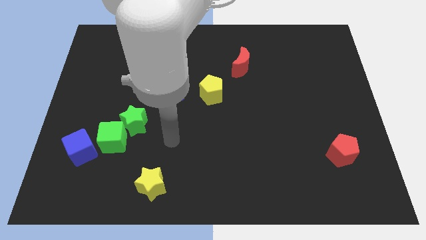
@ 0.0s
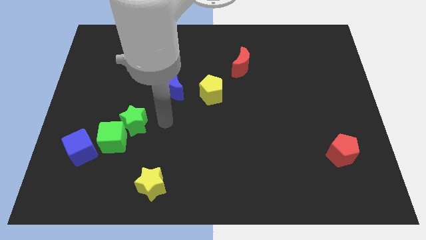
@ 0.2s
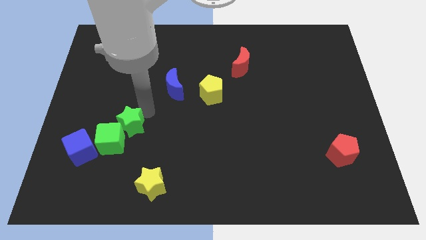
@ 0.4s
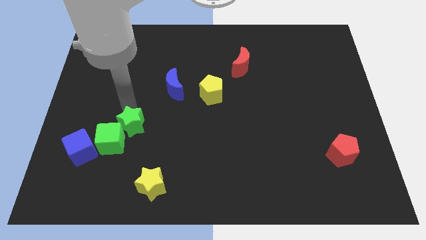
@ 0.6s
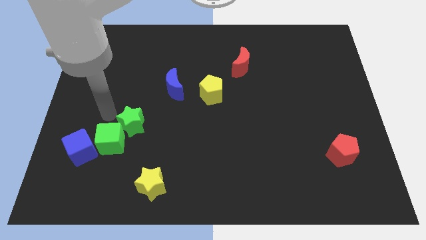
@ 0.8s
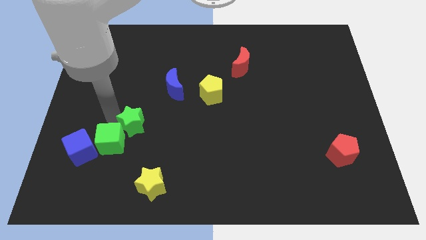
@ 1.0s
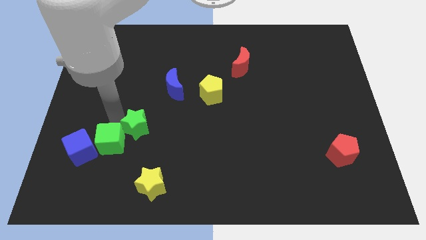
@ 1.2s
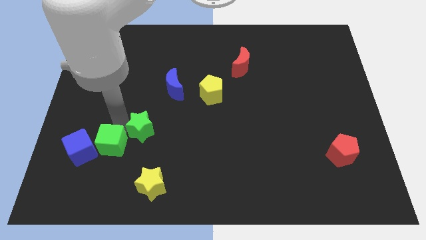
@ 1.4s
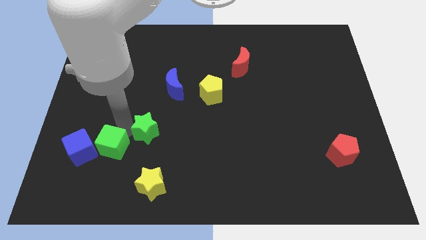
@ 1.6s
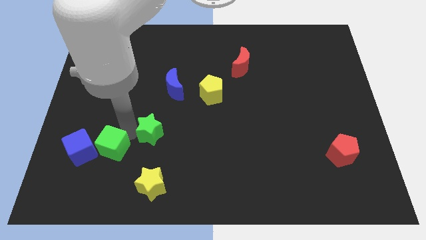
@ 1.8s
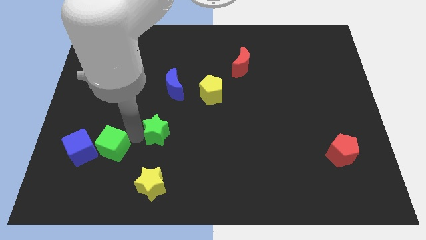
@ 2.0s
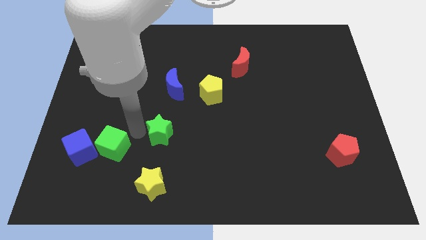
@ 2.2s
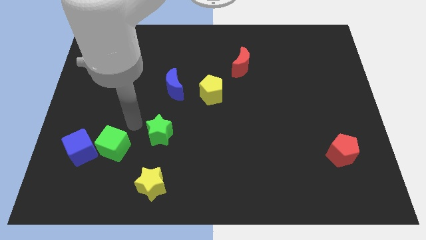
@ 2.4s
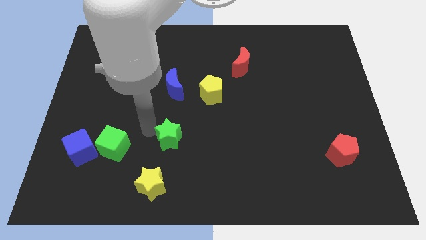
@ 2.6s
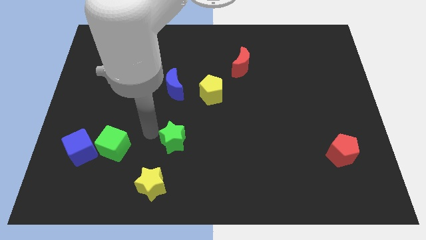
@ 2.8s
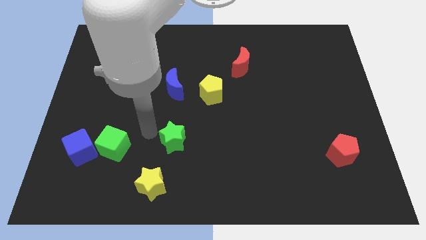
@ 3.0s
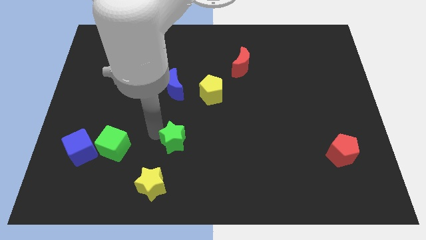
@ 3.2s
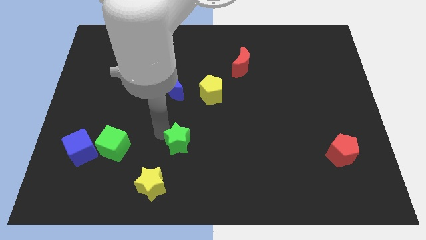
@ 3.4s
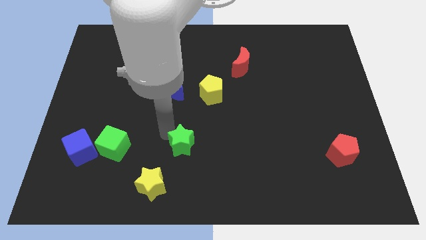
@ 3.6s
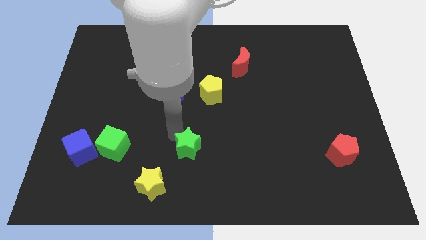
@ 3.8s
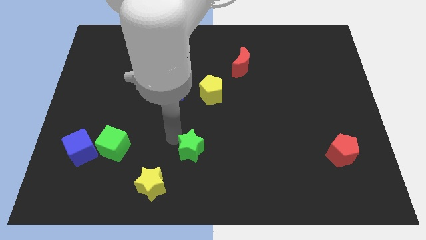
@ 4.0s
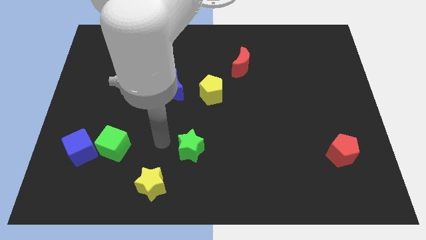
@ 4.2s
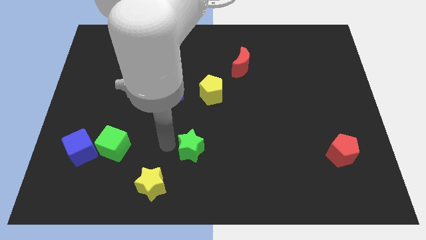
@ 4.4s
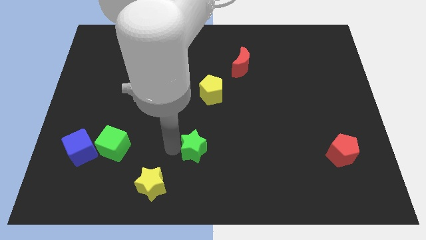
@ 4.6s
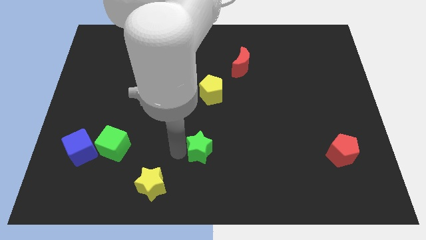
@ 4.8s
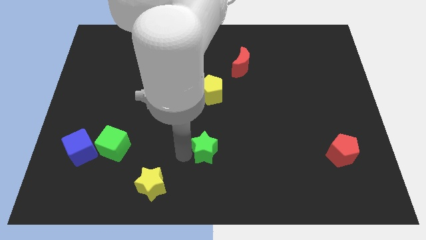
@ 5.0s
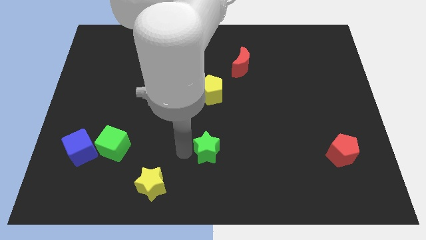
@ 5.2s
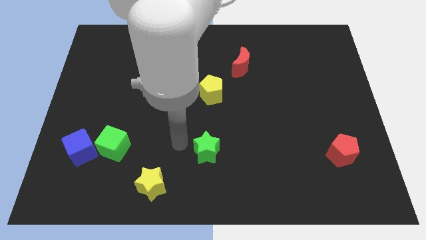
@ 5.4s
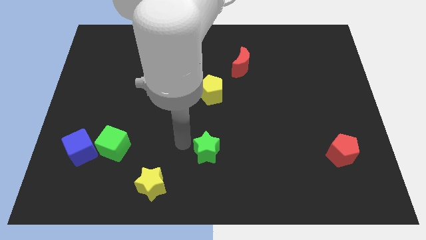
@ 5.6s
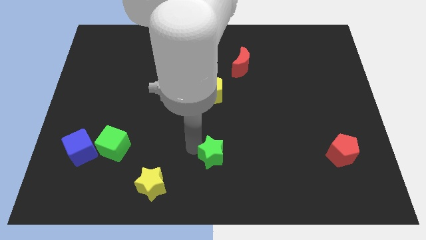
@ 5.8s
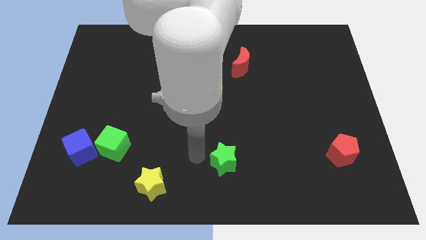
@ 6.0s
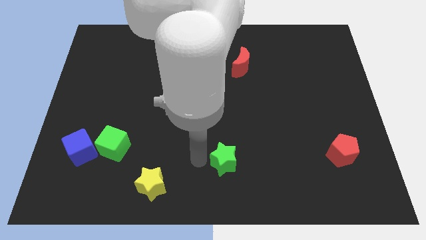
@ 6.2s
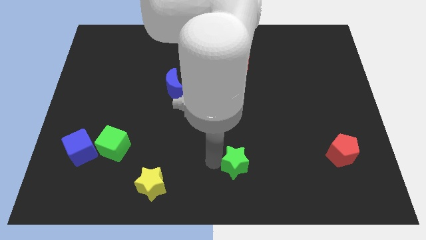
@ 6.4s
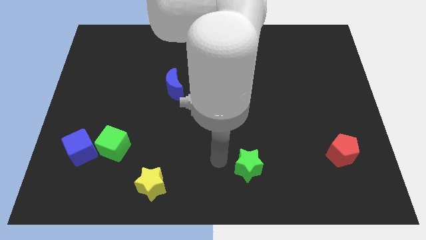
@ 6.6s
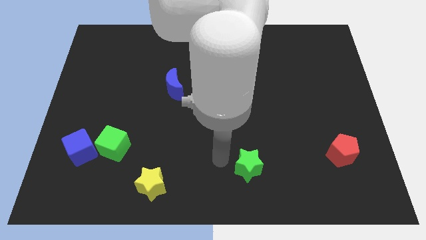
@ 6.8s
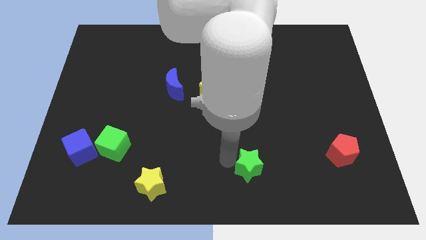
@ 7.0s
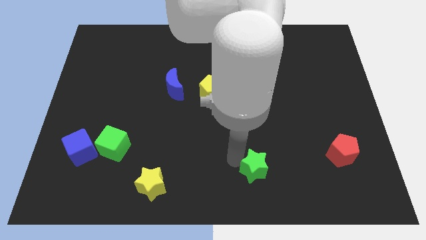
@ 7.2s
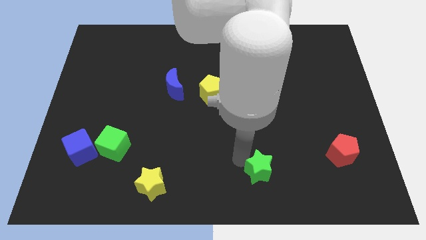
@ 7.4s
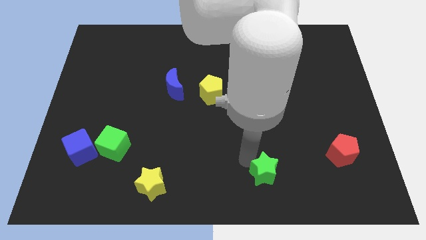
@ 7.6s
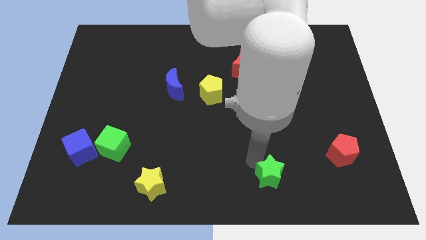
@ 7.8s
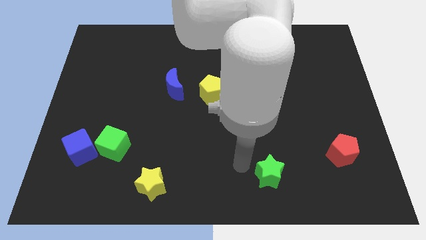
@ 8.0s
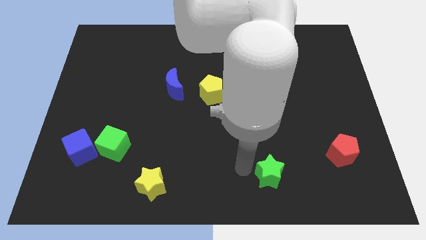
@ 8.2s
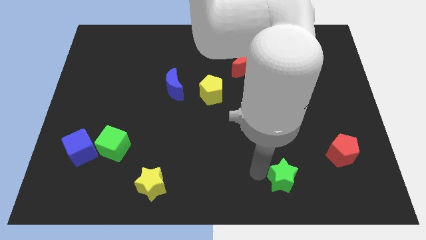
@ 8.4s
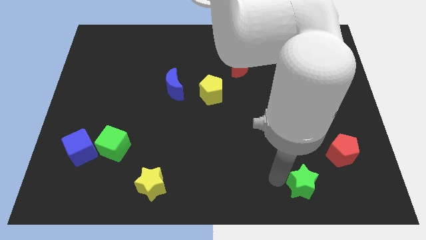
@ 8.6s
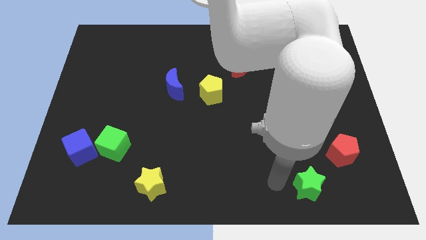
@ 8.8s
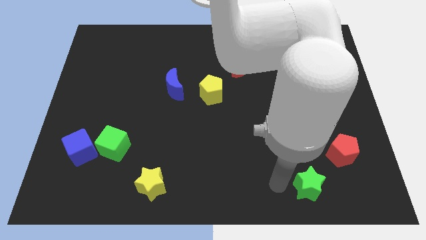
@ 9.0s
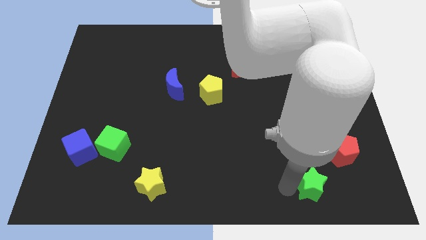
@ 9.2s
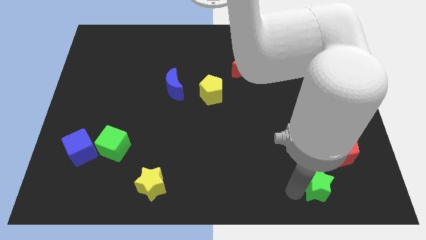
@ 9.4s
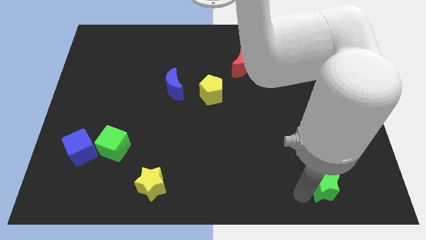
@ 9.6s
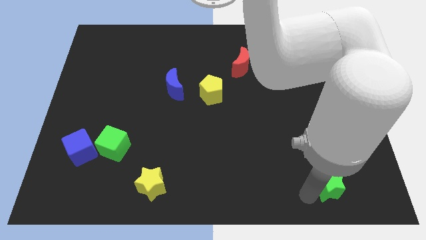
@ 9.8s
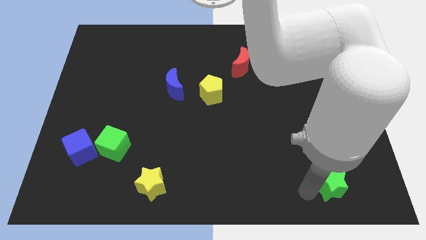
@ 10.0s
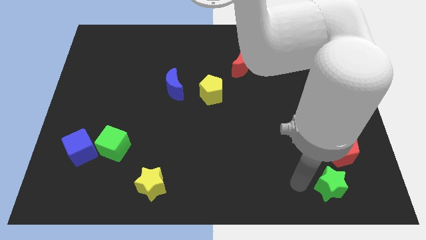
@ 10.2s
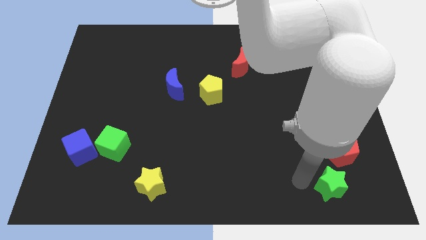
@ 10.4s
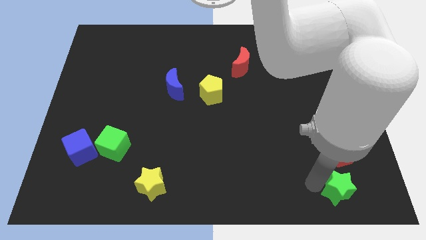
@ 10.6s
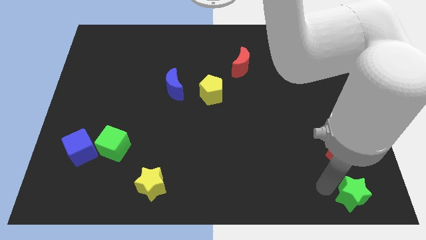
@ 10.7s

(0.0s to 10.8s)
move the green star to the bottom right

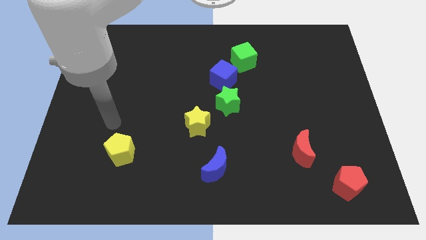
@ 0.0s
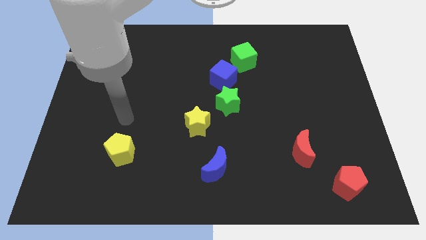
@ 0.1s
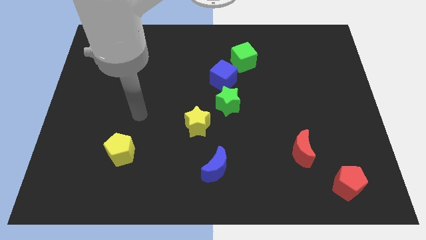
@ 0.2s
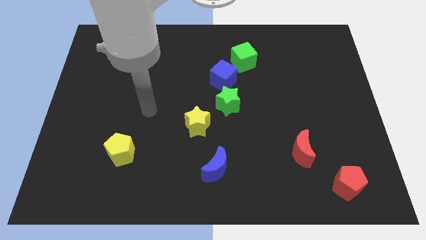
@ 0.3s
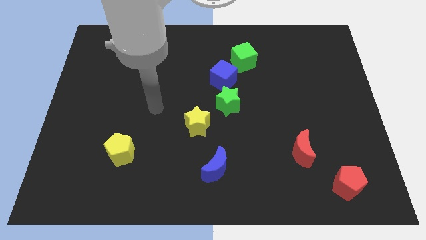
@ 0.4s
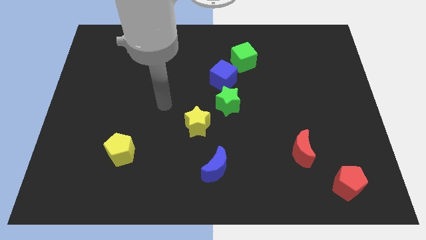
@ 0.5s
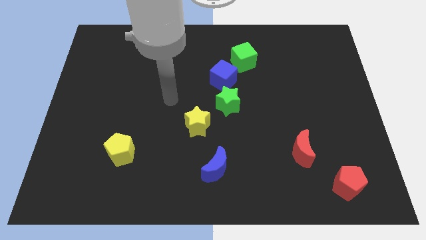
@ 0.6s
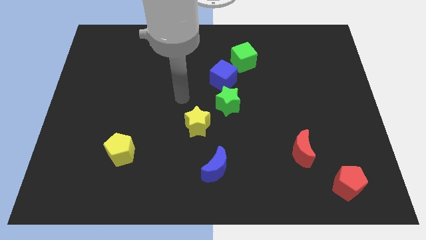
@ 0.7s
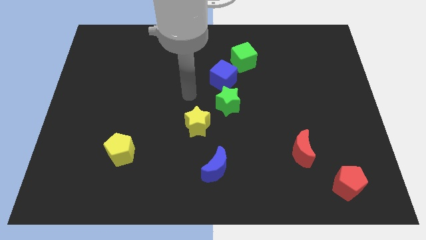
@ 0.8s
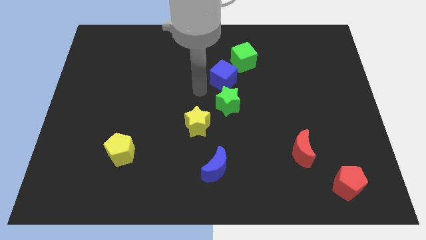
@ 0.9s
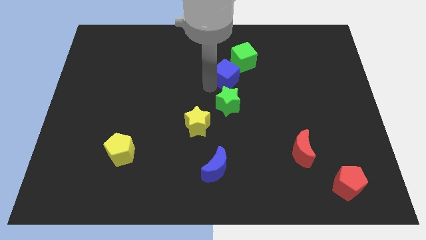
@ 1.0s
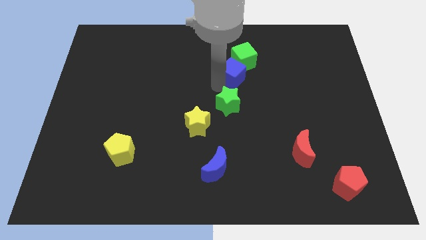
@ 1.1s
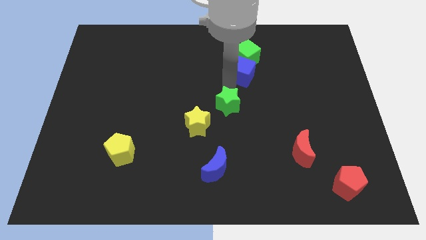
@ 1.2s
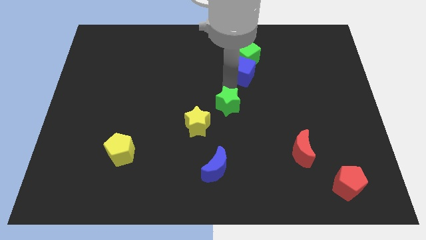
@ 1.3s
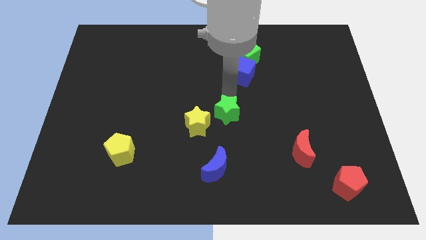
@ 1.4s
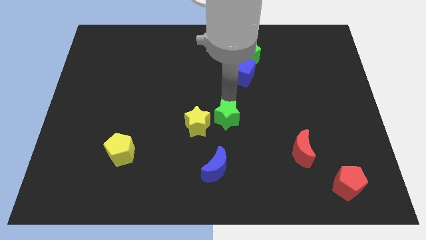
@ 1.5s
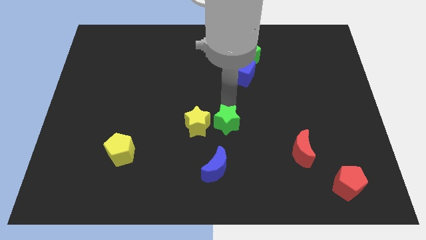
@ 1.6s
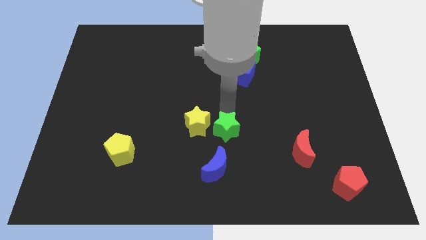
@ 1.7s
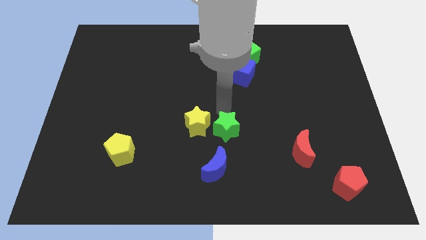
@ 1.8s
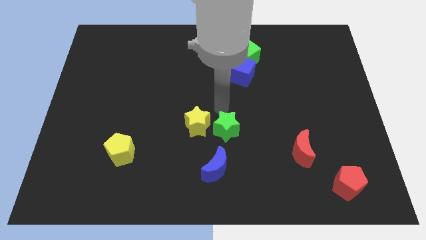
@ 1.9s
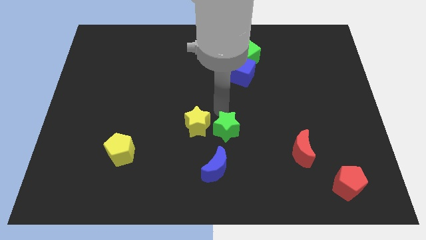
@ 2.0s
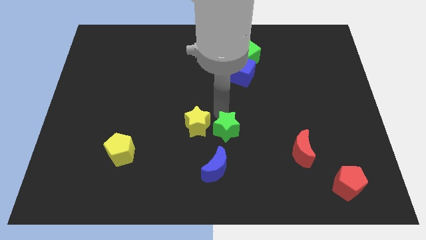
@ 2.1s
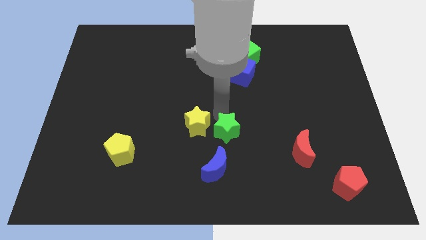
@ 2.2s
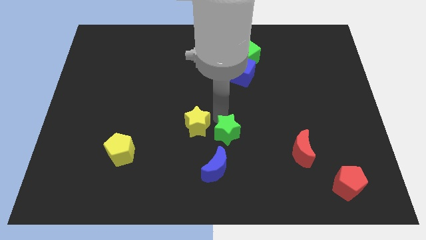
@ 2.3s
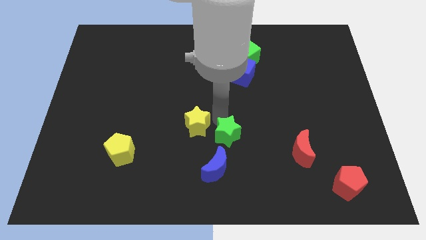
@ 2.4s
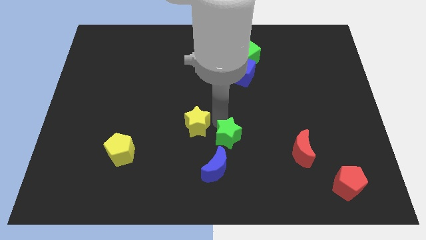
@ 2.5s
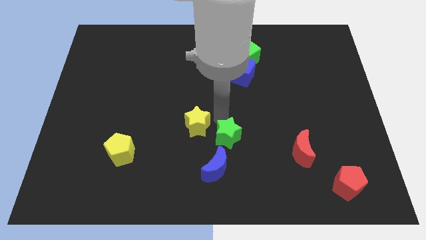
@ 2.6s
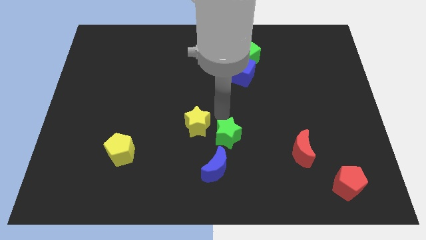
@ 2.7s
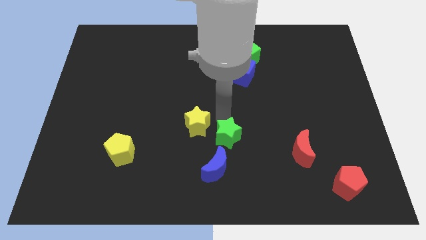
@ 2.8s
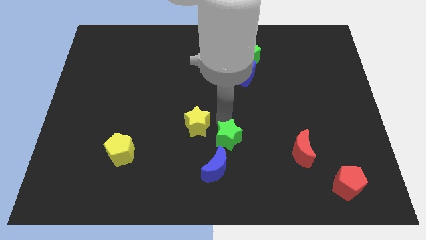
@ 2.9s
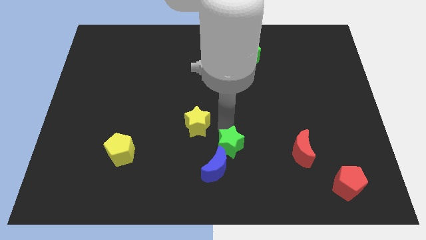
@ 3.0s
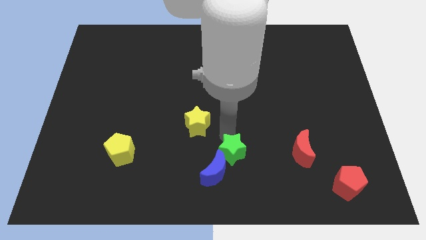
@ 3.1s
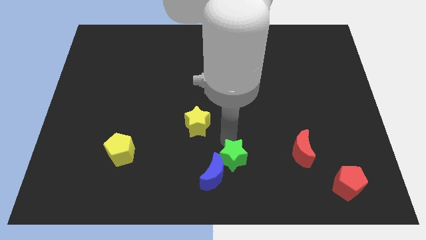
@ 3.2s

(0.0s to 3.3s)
push the green star to the bottom
